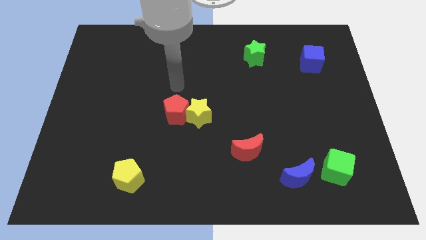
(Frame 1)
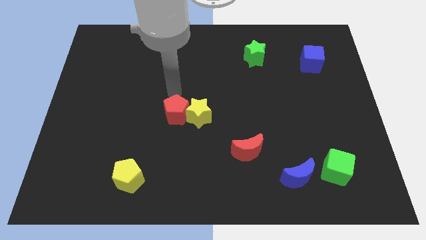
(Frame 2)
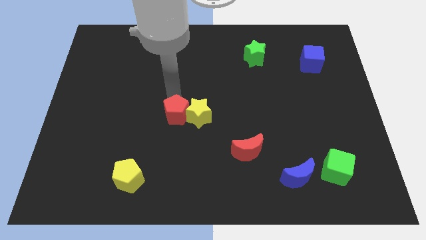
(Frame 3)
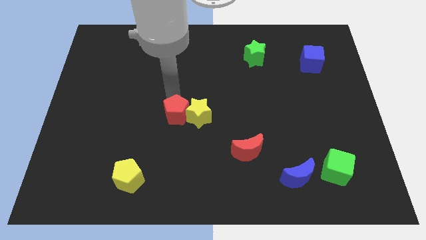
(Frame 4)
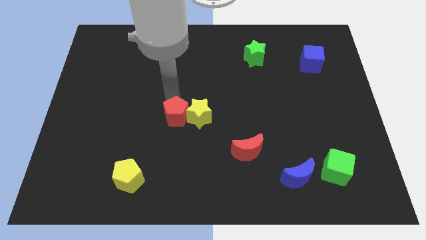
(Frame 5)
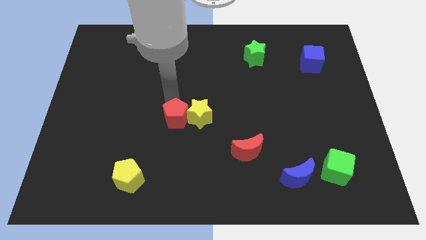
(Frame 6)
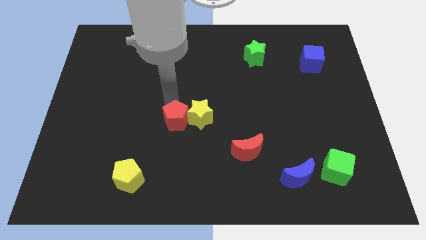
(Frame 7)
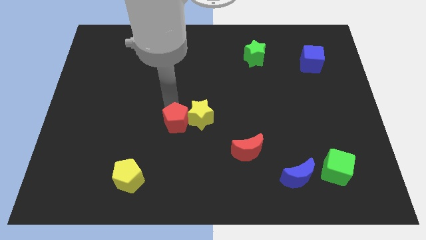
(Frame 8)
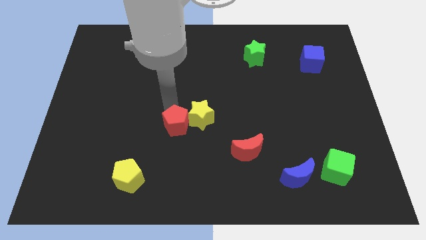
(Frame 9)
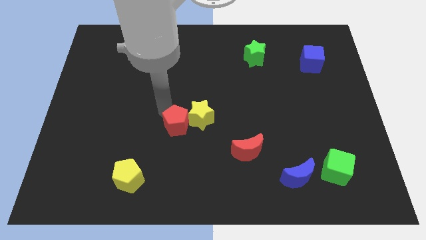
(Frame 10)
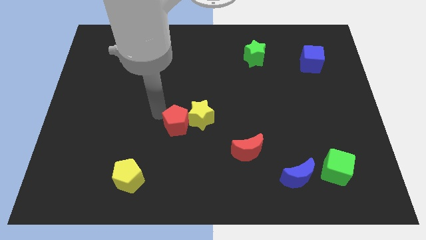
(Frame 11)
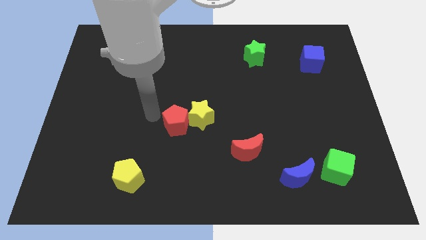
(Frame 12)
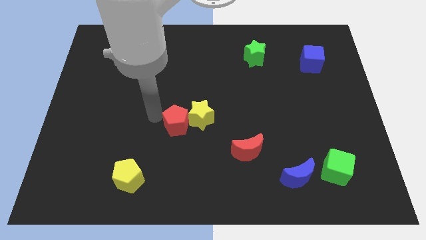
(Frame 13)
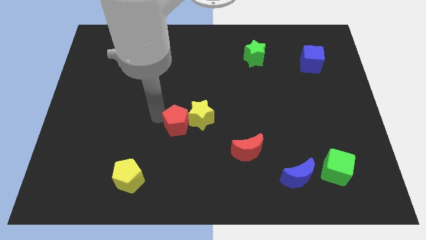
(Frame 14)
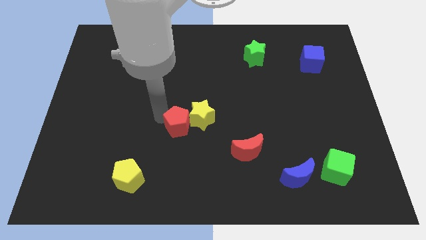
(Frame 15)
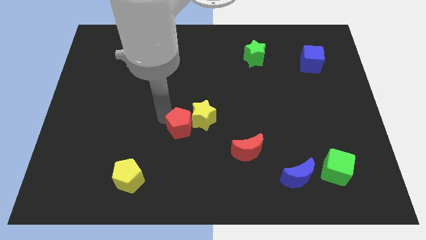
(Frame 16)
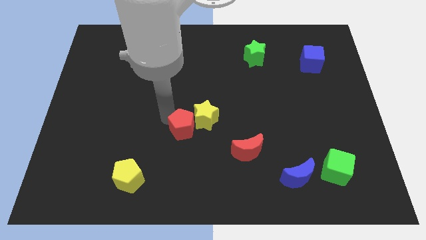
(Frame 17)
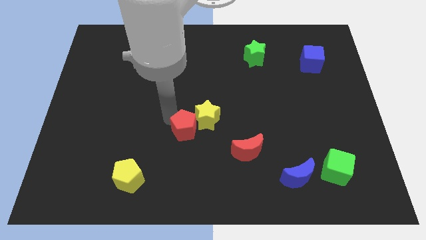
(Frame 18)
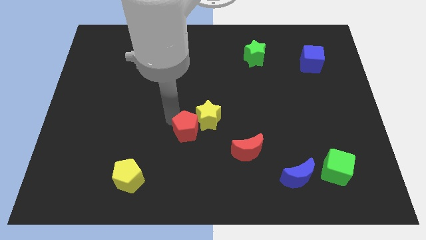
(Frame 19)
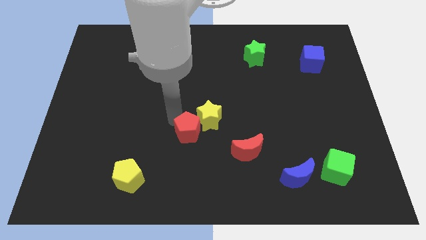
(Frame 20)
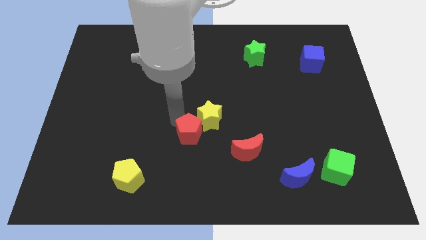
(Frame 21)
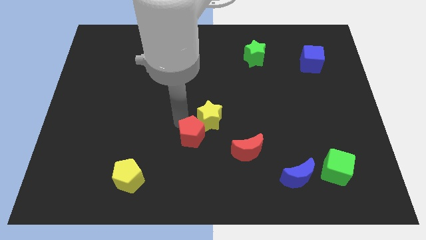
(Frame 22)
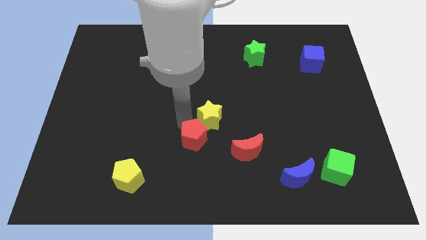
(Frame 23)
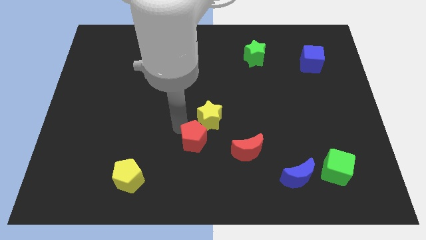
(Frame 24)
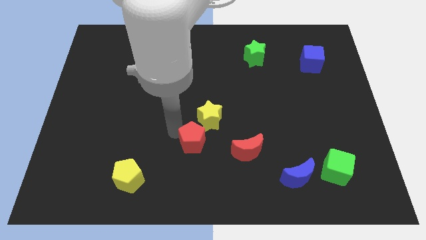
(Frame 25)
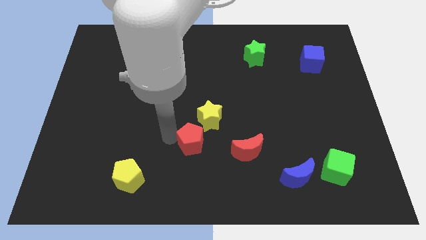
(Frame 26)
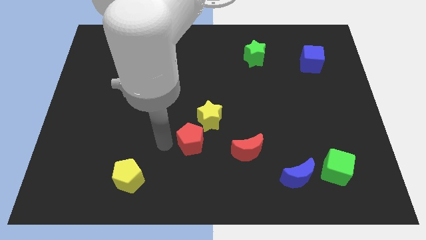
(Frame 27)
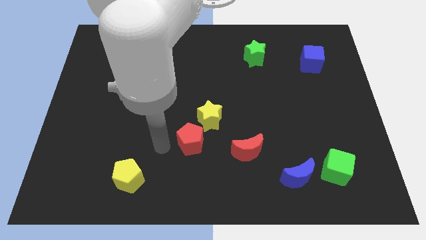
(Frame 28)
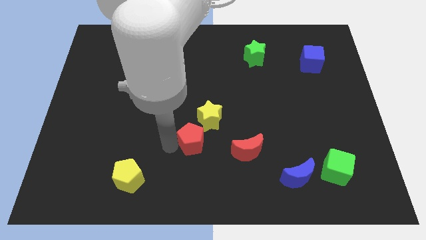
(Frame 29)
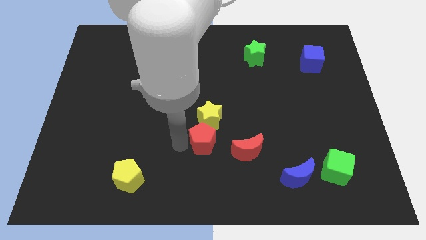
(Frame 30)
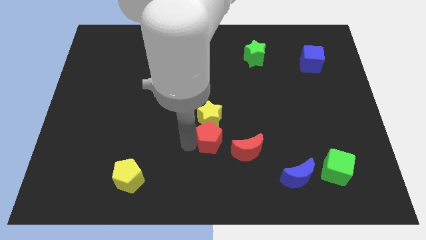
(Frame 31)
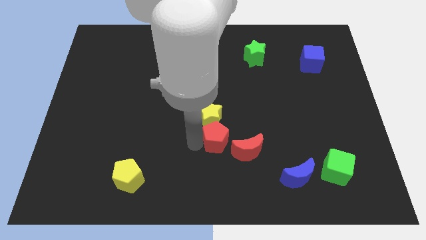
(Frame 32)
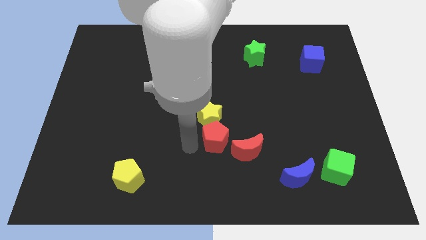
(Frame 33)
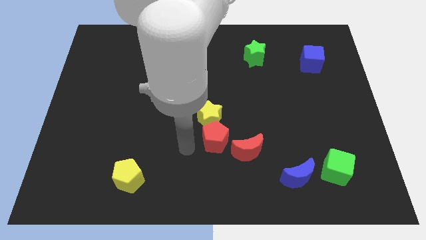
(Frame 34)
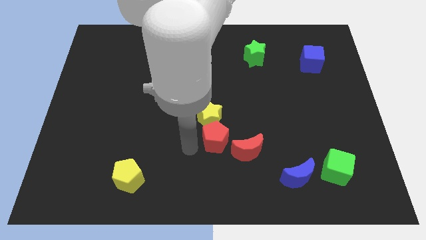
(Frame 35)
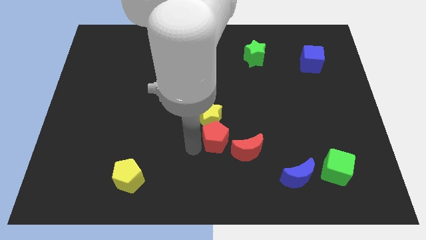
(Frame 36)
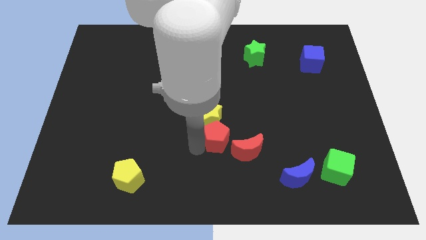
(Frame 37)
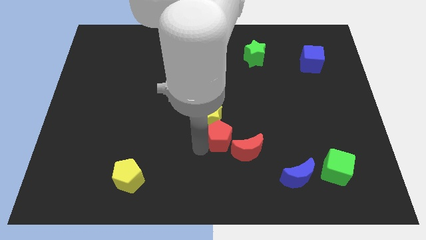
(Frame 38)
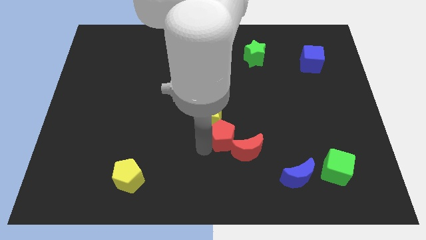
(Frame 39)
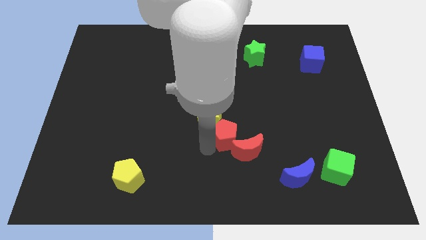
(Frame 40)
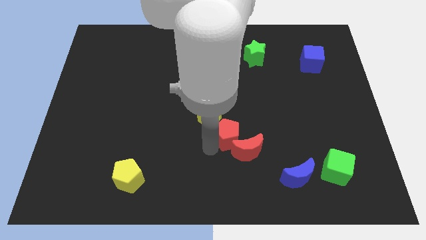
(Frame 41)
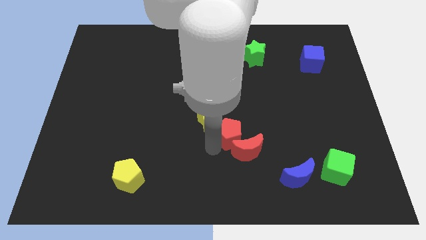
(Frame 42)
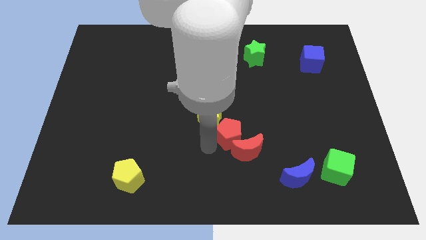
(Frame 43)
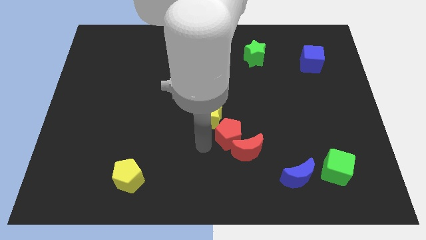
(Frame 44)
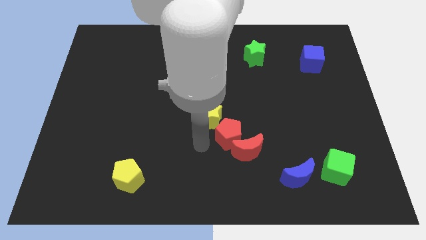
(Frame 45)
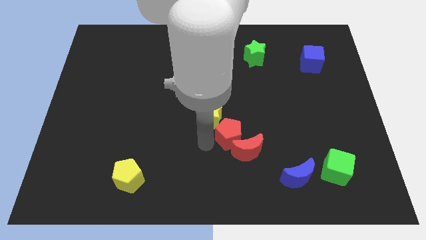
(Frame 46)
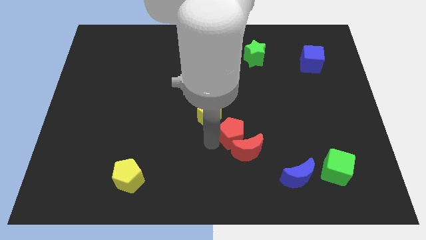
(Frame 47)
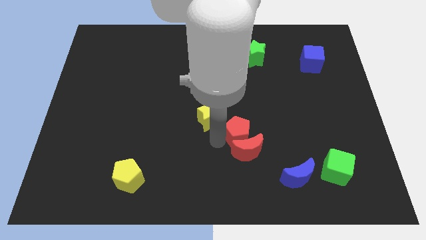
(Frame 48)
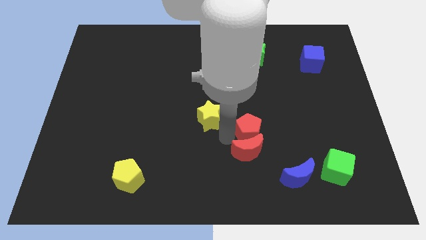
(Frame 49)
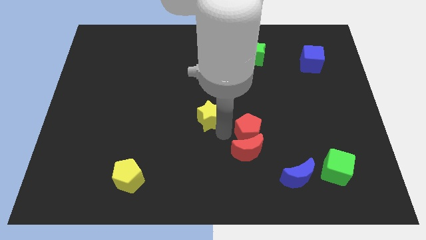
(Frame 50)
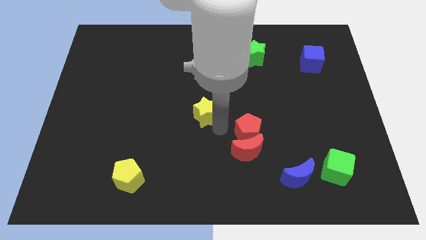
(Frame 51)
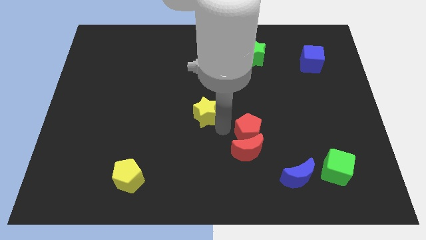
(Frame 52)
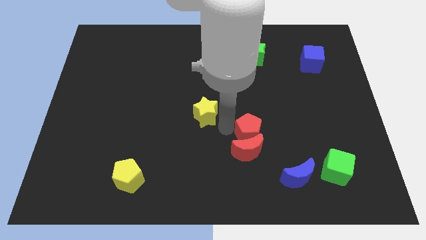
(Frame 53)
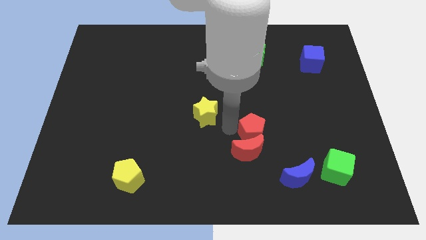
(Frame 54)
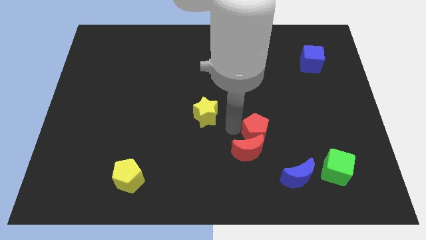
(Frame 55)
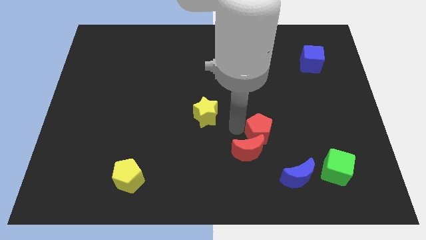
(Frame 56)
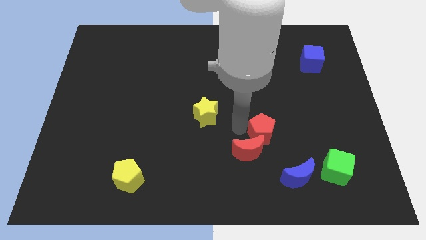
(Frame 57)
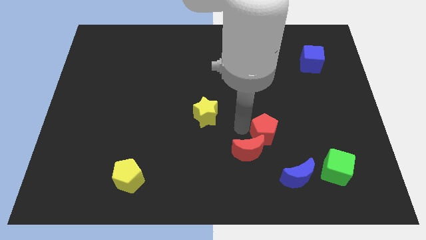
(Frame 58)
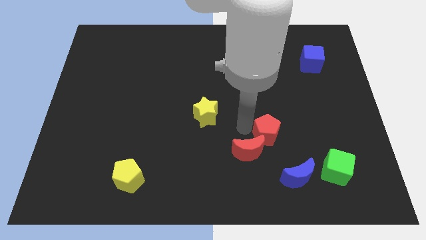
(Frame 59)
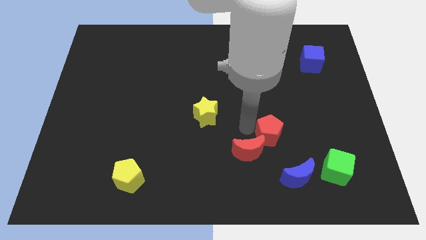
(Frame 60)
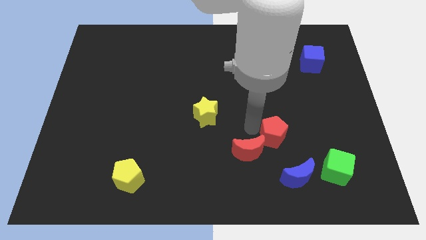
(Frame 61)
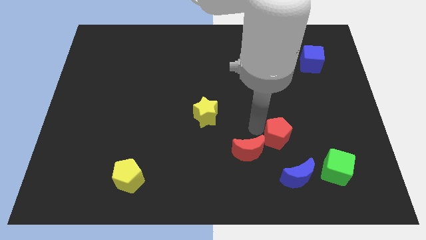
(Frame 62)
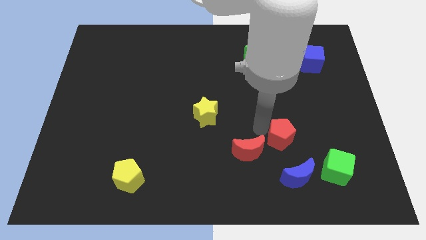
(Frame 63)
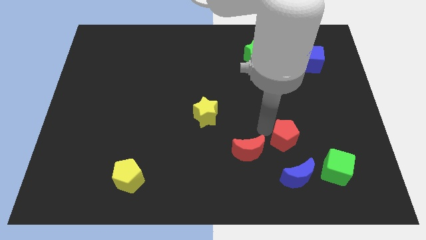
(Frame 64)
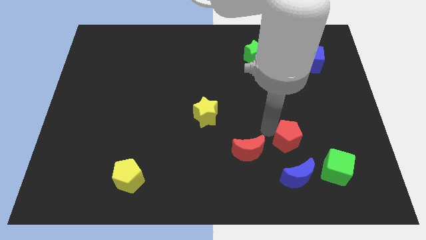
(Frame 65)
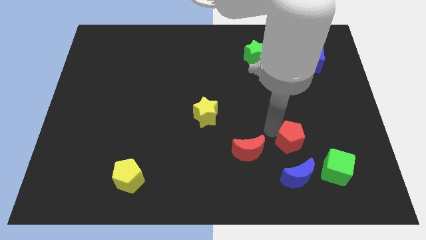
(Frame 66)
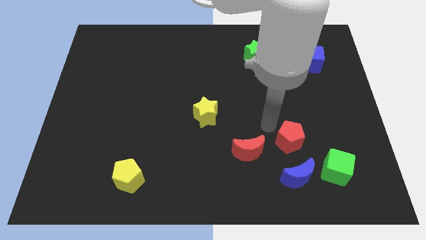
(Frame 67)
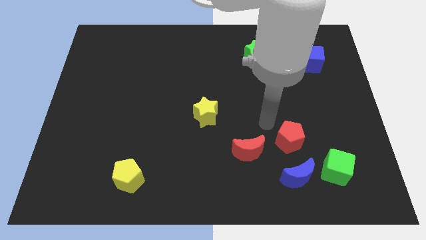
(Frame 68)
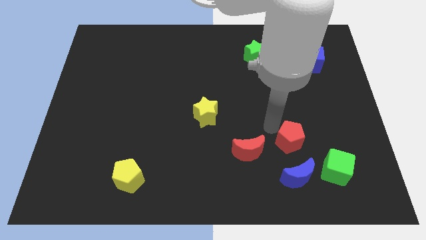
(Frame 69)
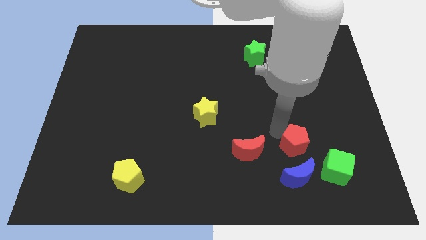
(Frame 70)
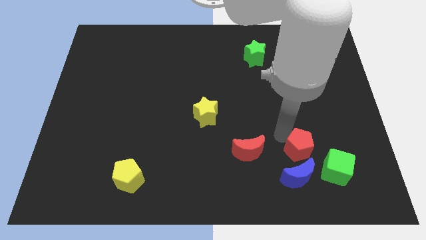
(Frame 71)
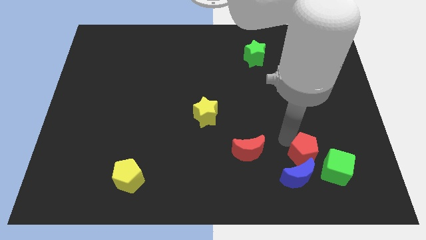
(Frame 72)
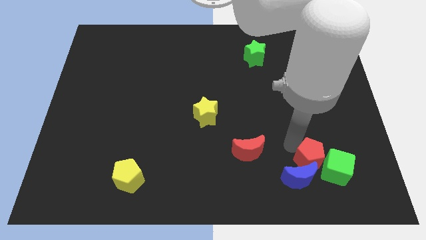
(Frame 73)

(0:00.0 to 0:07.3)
push the red pentagon close to the green cube
